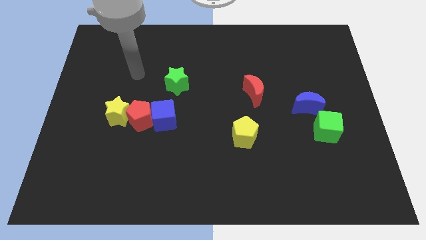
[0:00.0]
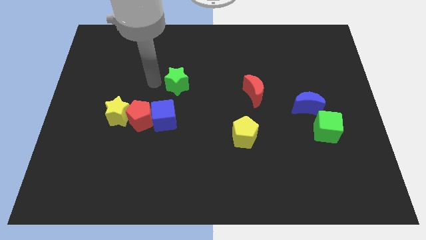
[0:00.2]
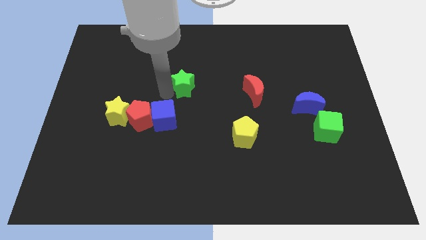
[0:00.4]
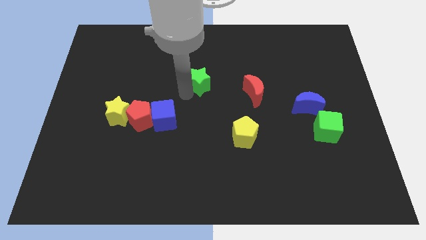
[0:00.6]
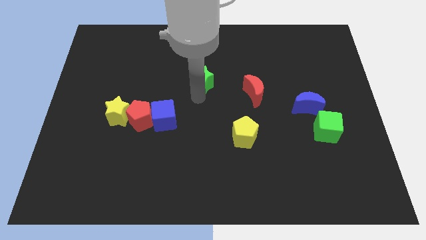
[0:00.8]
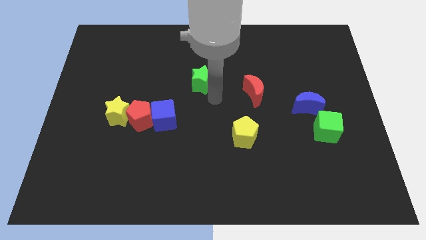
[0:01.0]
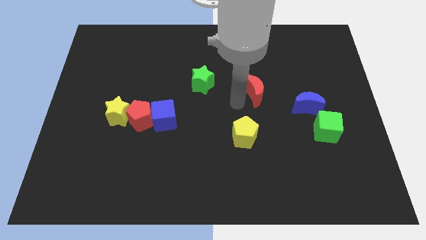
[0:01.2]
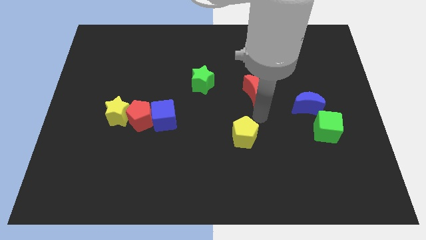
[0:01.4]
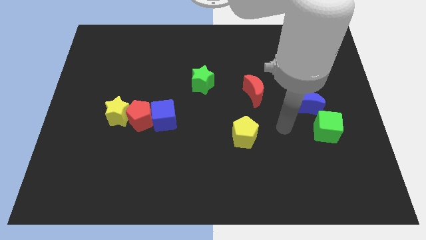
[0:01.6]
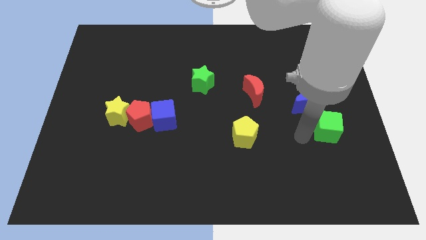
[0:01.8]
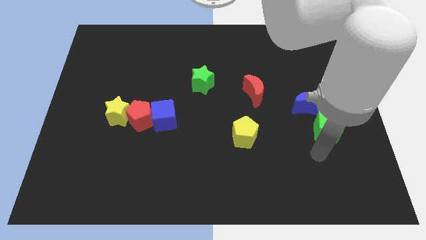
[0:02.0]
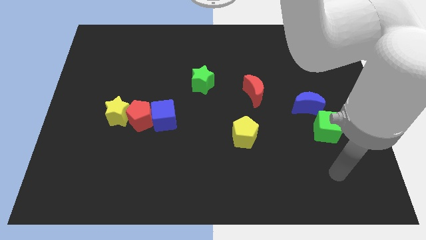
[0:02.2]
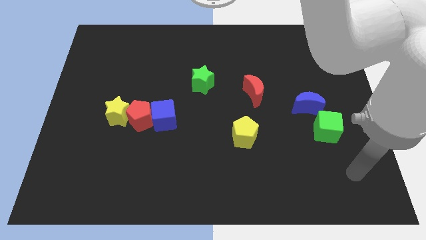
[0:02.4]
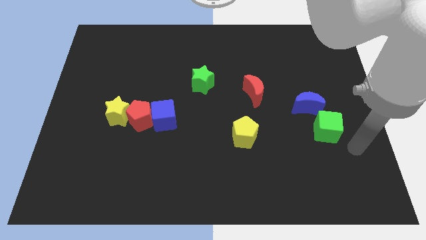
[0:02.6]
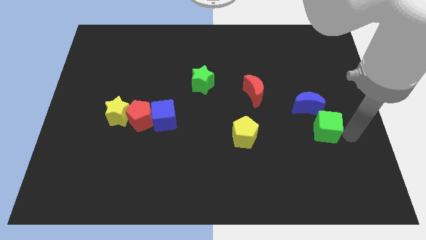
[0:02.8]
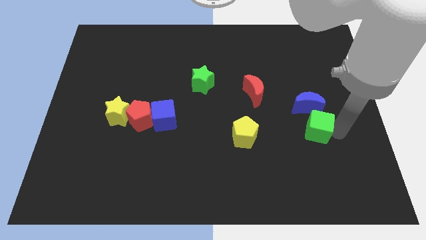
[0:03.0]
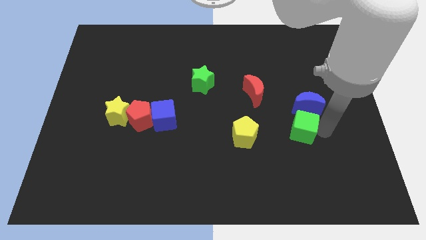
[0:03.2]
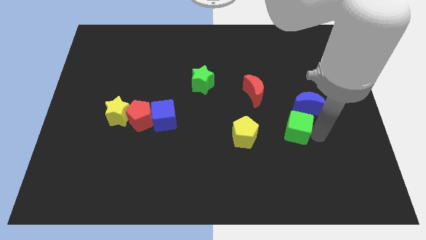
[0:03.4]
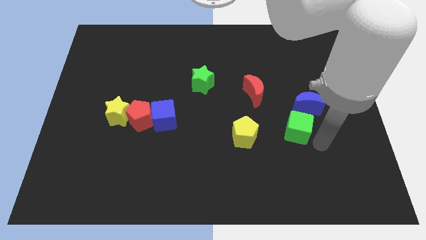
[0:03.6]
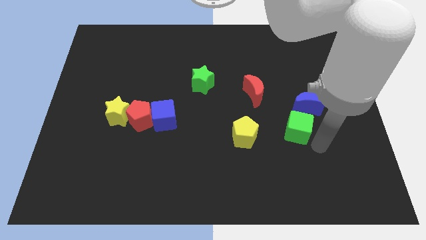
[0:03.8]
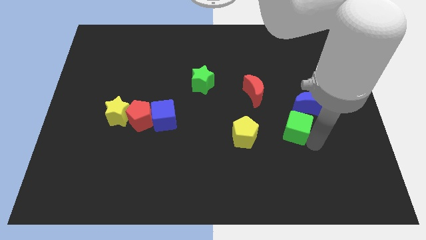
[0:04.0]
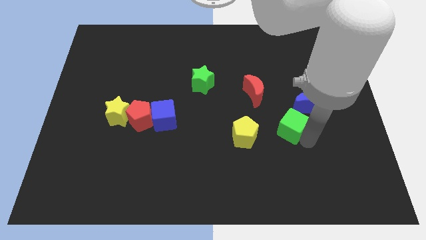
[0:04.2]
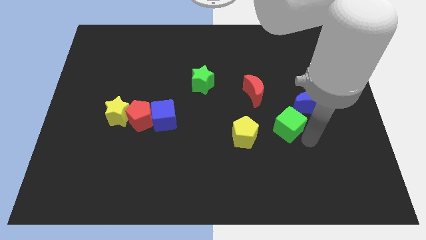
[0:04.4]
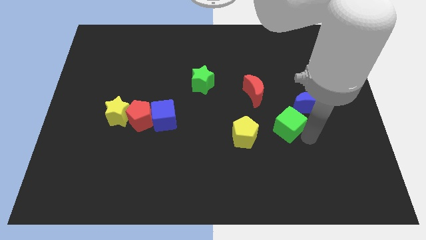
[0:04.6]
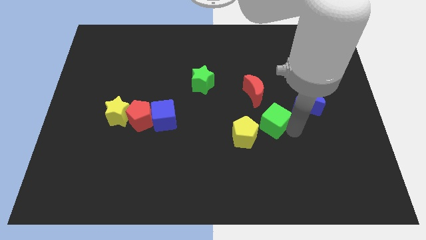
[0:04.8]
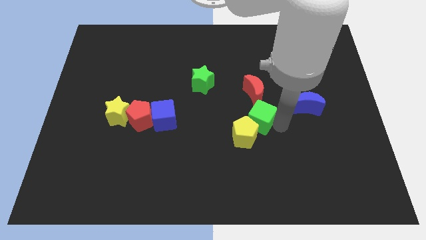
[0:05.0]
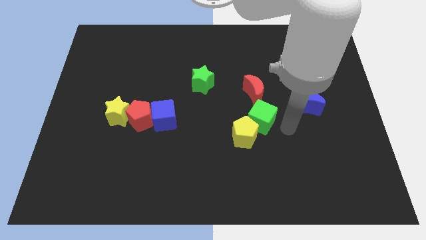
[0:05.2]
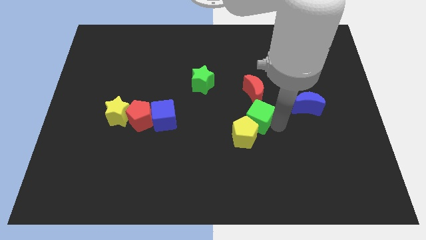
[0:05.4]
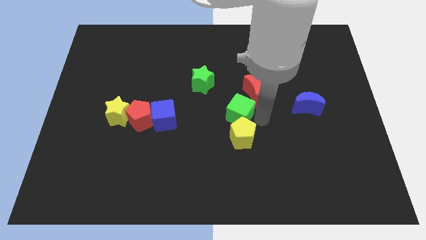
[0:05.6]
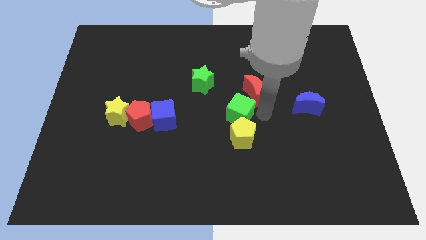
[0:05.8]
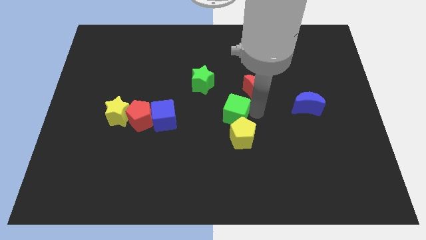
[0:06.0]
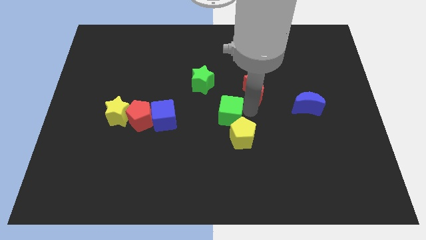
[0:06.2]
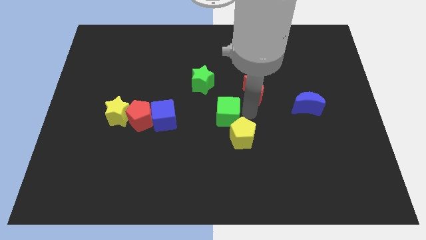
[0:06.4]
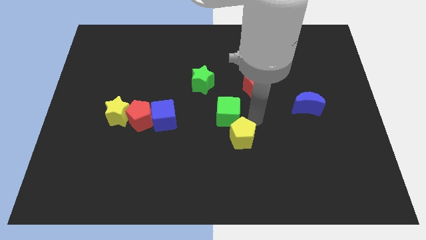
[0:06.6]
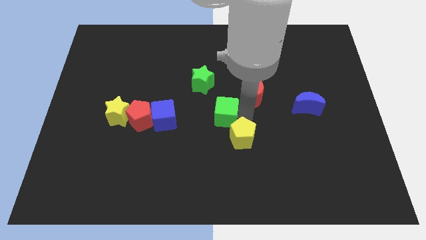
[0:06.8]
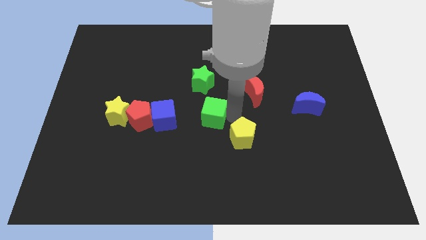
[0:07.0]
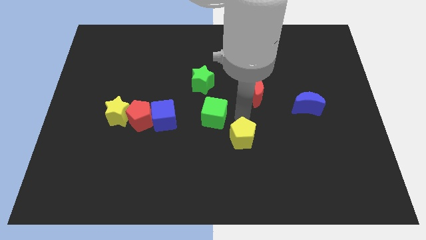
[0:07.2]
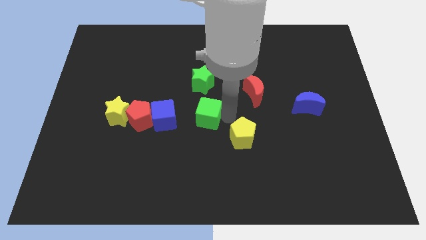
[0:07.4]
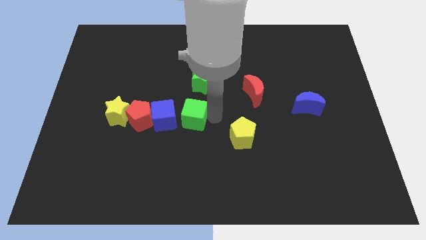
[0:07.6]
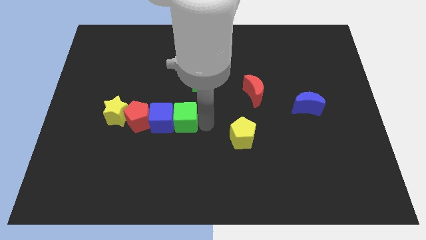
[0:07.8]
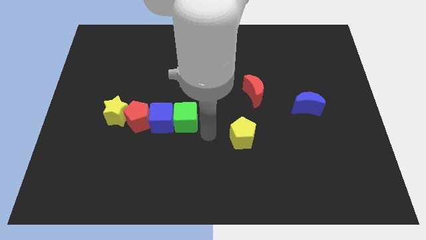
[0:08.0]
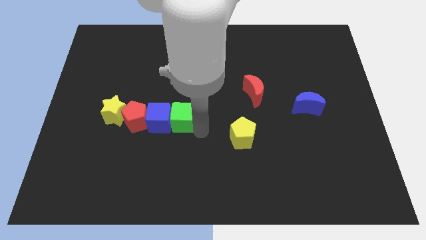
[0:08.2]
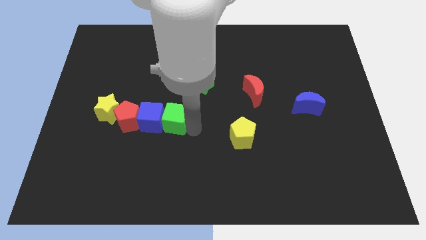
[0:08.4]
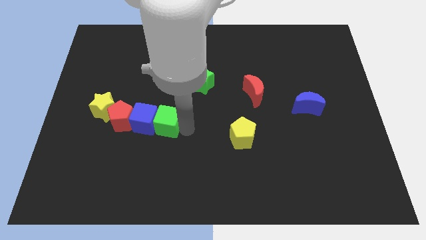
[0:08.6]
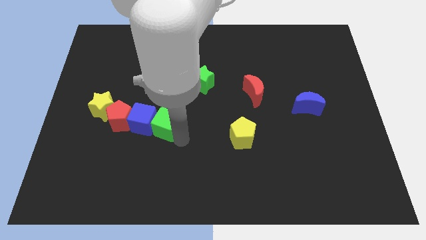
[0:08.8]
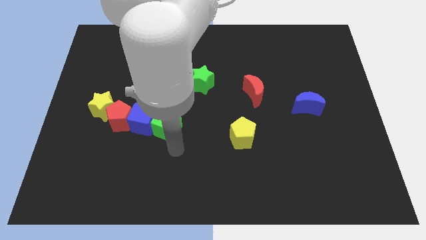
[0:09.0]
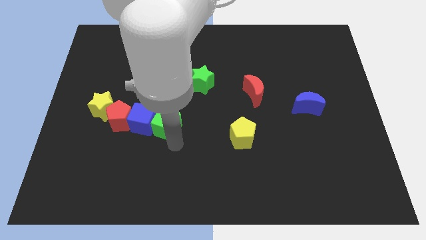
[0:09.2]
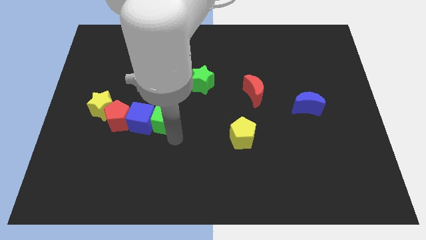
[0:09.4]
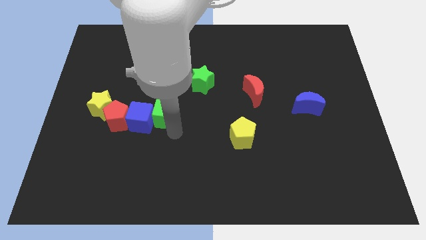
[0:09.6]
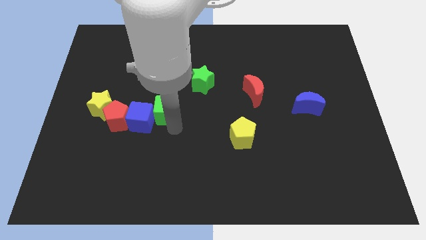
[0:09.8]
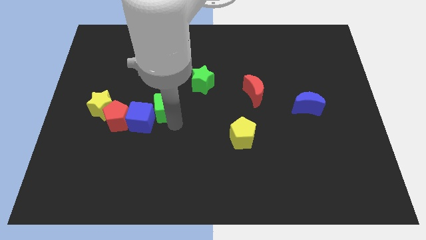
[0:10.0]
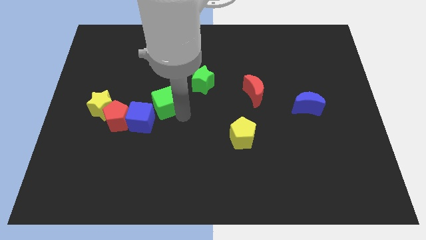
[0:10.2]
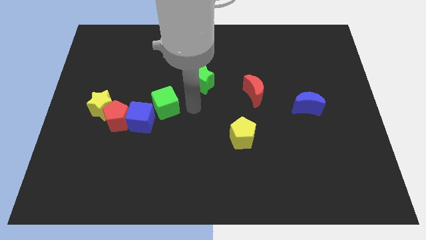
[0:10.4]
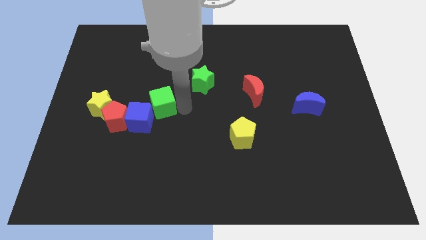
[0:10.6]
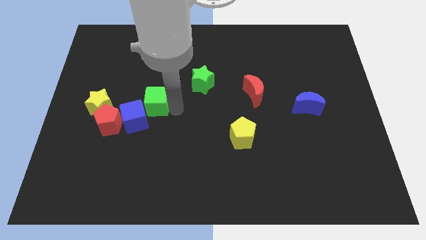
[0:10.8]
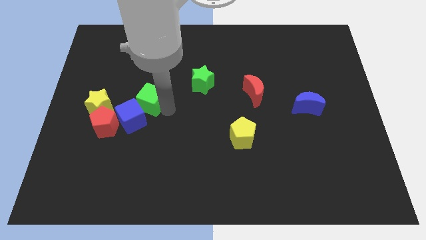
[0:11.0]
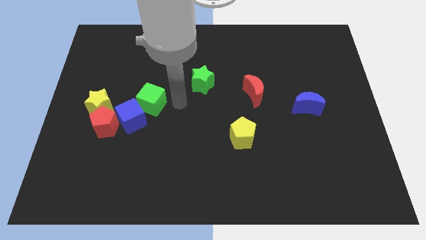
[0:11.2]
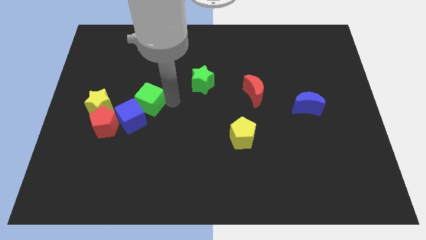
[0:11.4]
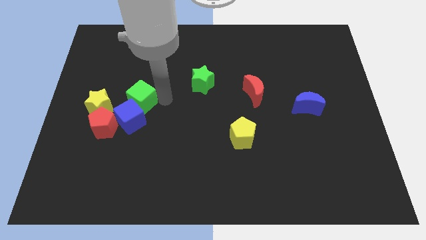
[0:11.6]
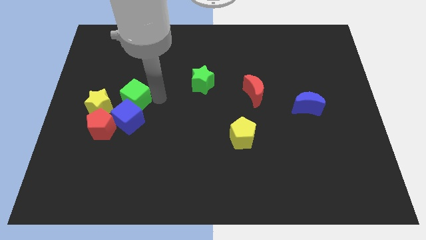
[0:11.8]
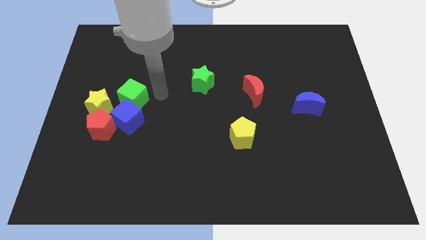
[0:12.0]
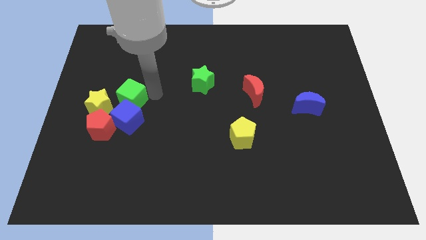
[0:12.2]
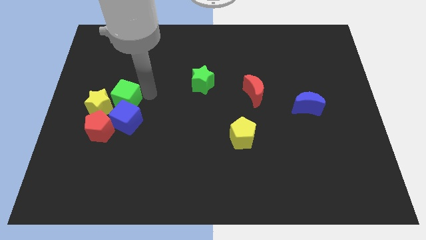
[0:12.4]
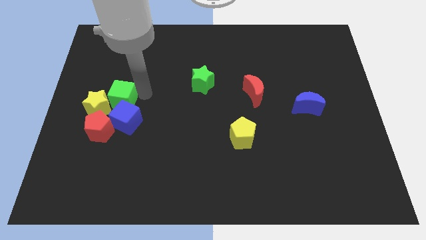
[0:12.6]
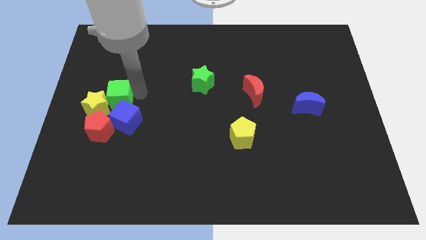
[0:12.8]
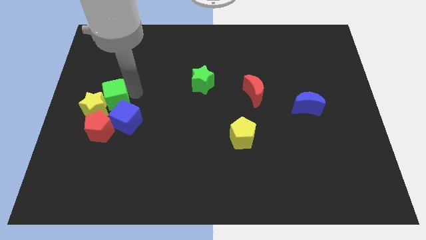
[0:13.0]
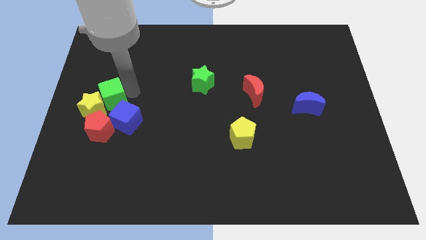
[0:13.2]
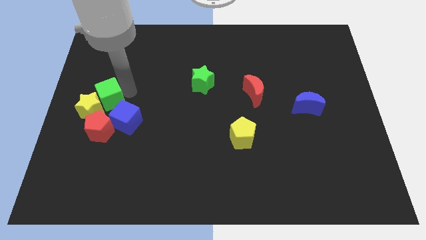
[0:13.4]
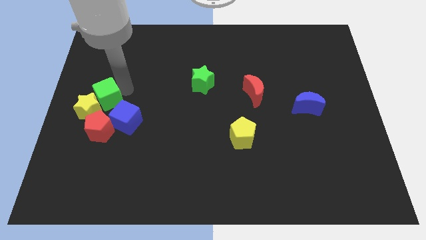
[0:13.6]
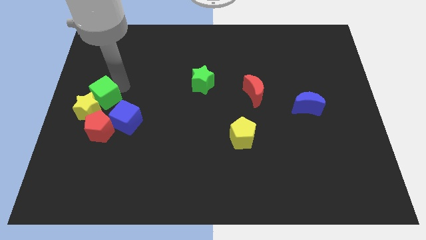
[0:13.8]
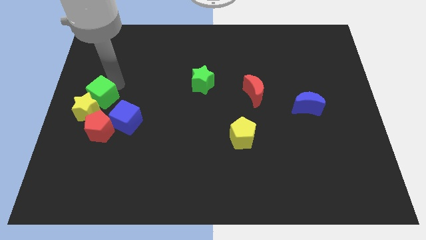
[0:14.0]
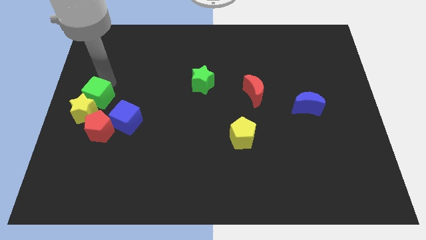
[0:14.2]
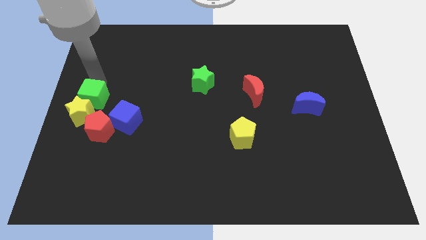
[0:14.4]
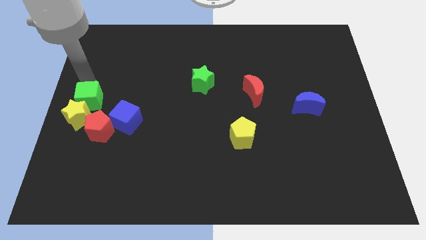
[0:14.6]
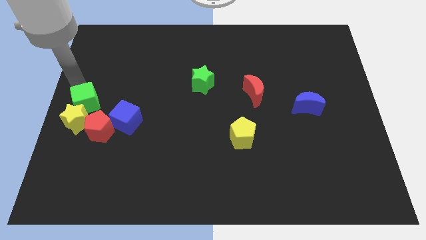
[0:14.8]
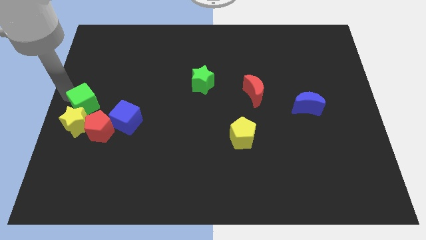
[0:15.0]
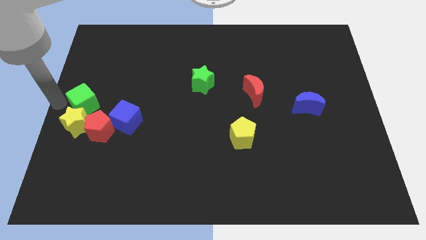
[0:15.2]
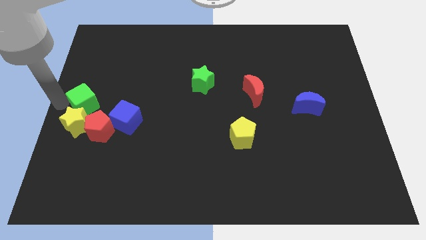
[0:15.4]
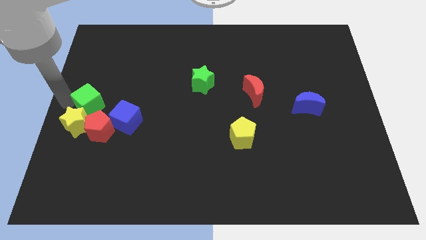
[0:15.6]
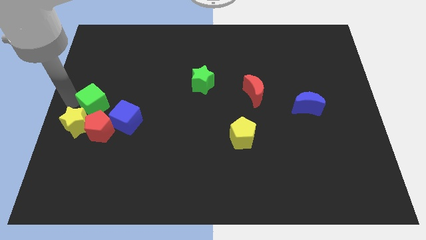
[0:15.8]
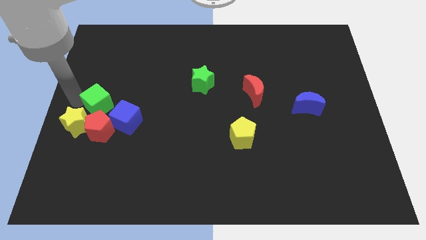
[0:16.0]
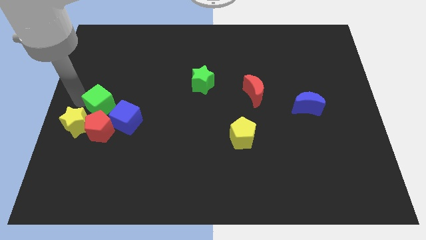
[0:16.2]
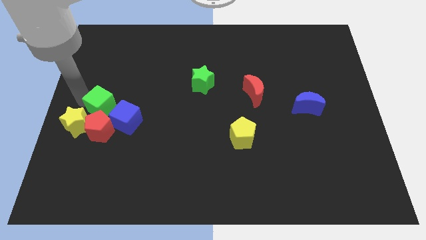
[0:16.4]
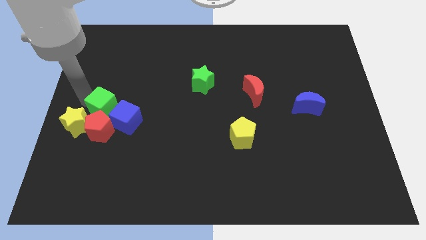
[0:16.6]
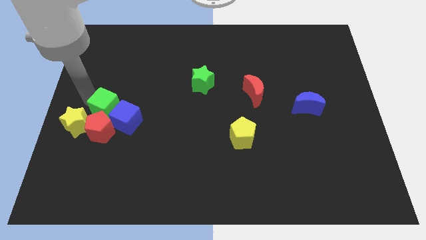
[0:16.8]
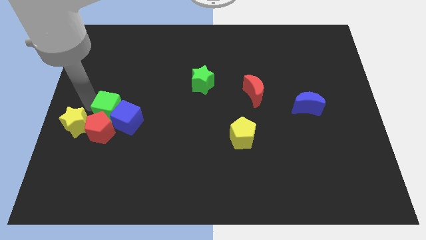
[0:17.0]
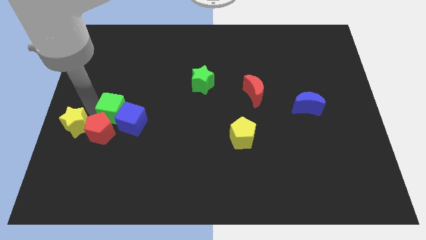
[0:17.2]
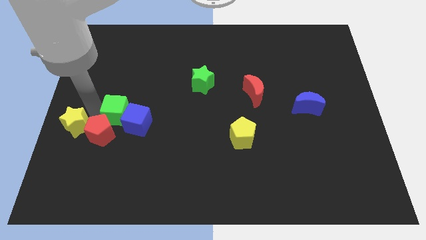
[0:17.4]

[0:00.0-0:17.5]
move the green cube diagonally up and to the left of the blue cube
